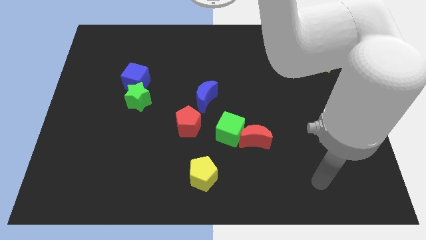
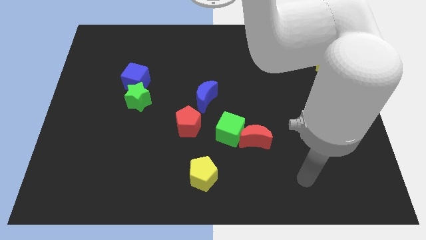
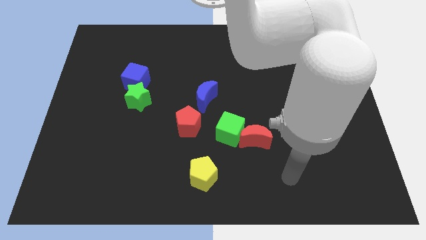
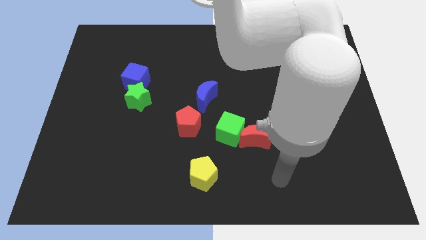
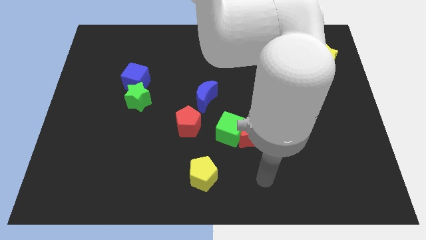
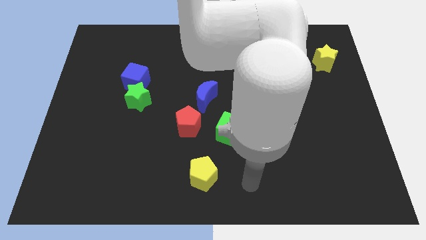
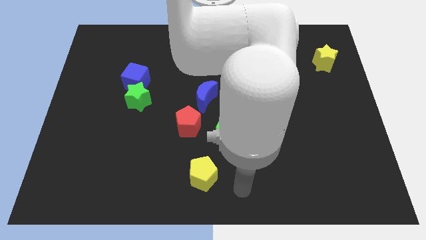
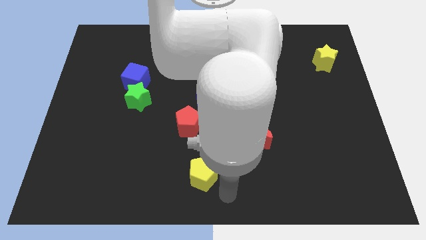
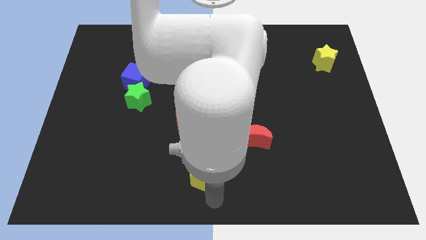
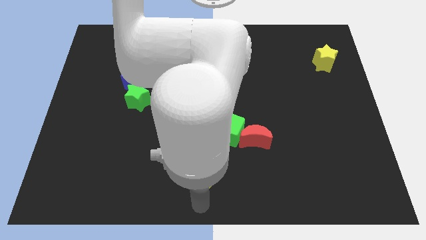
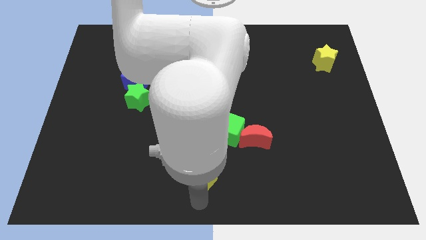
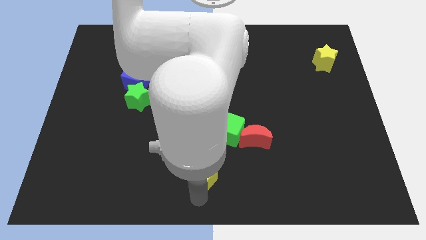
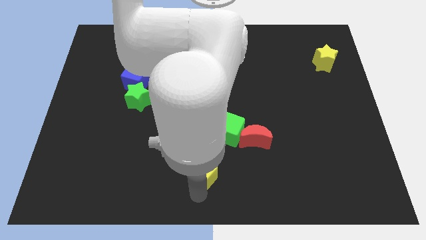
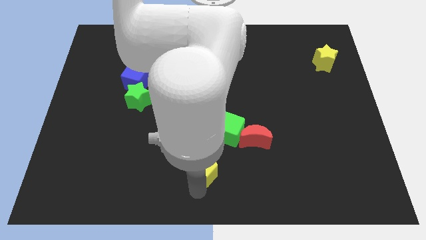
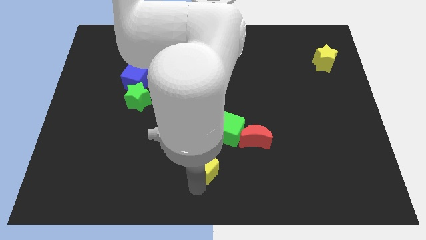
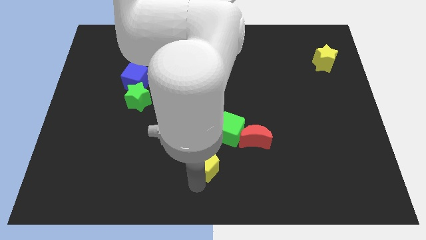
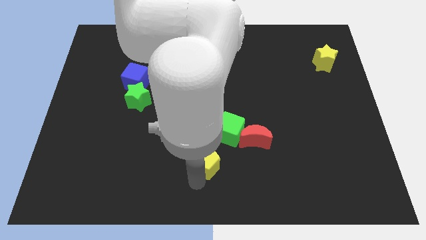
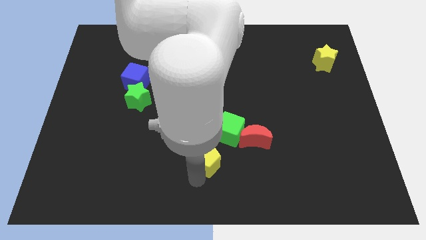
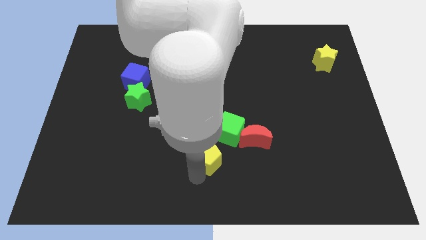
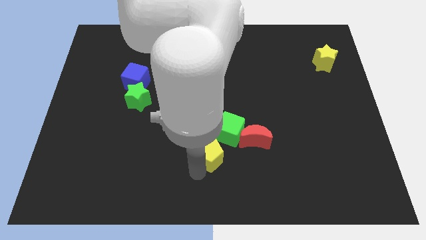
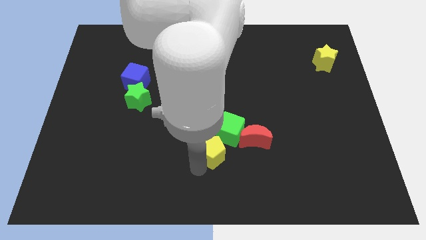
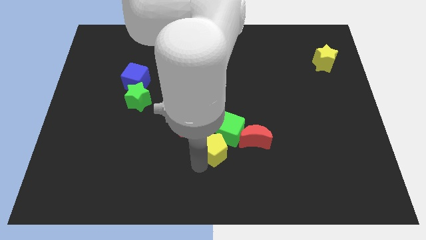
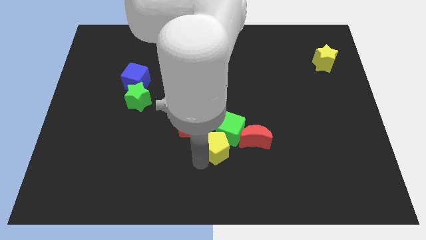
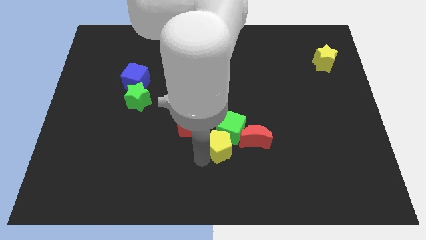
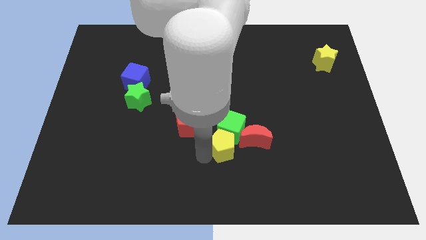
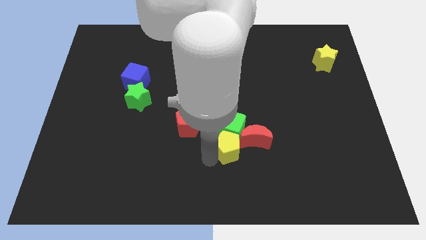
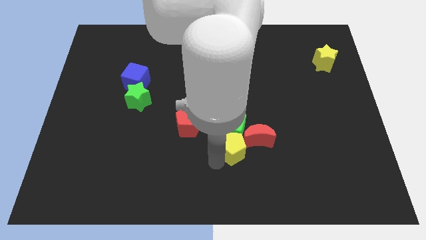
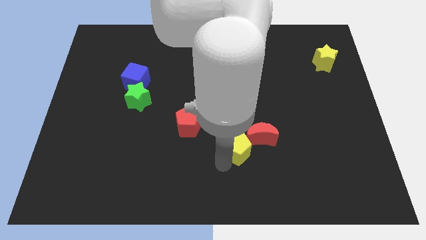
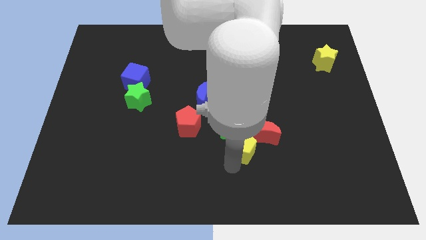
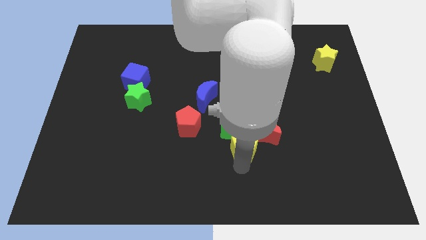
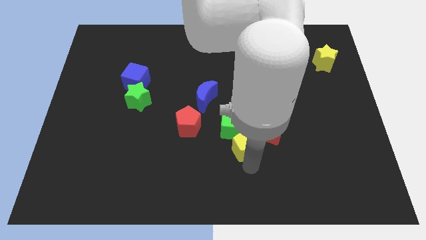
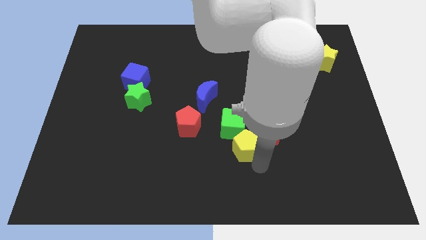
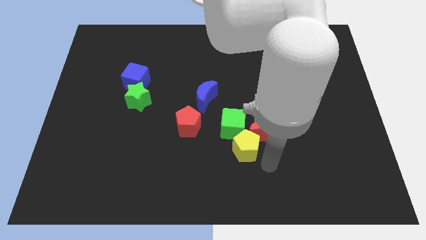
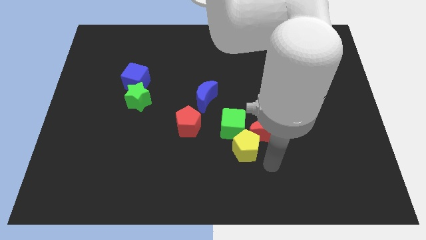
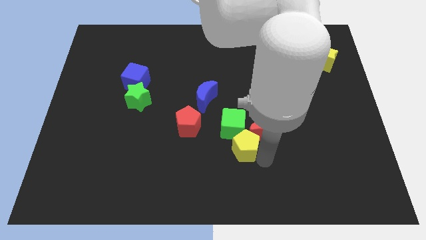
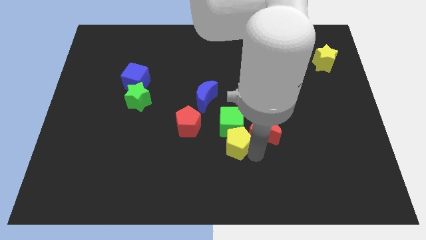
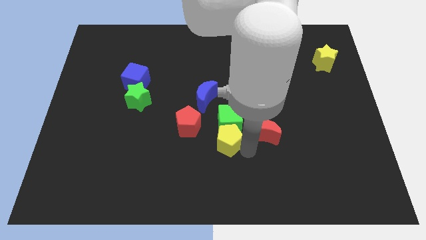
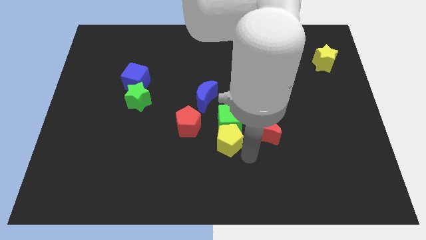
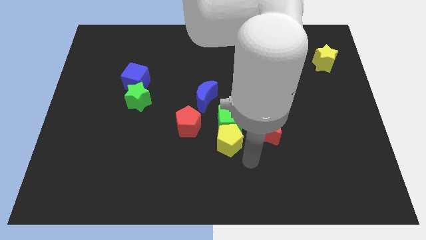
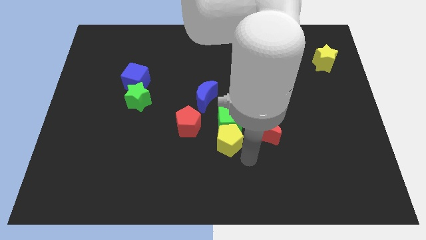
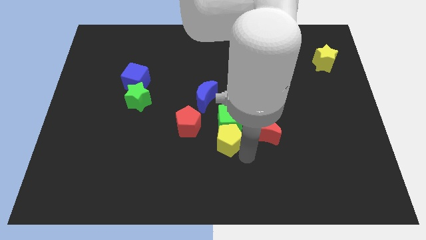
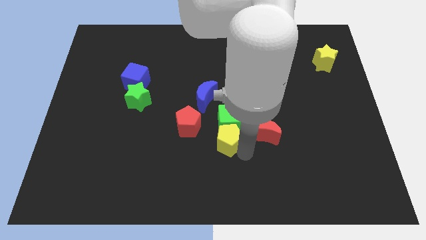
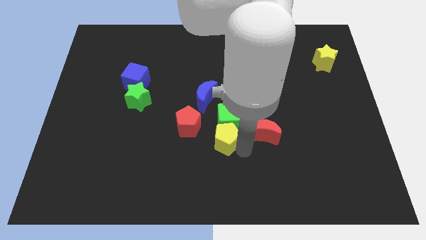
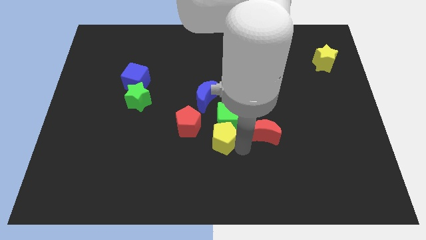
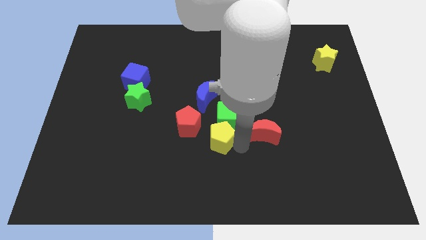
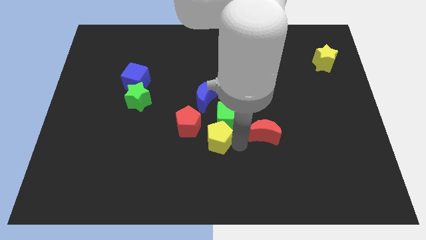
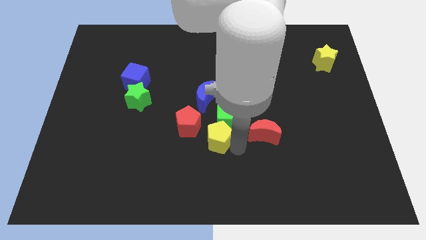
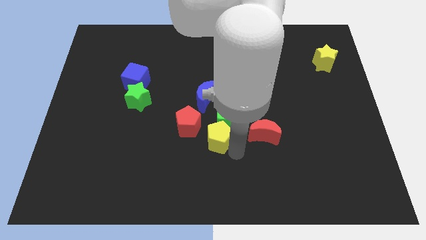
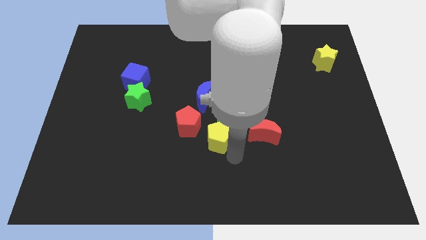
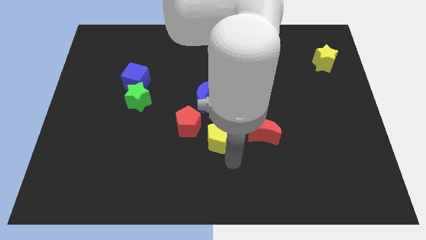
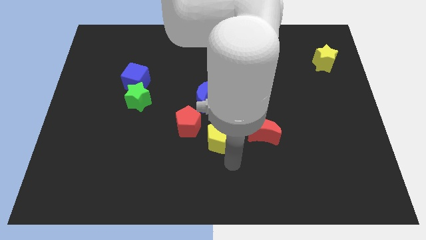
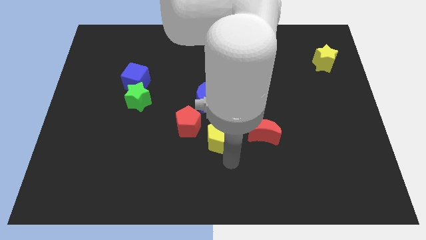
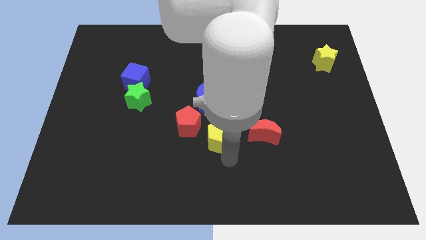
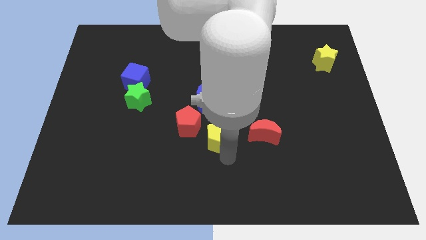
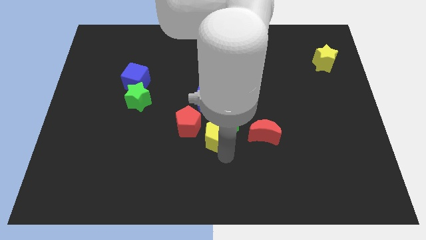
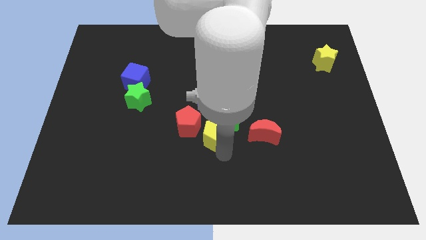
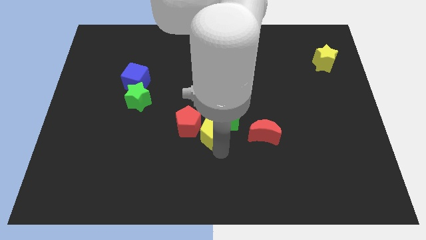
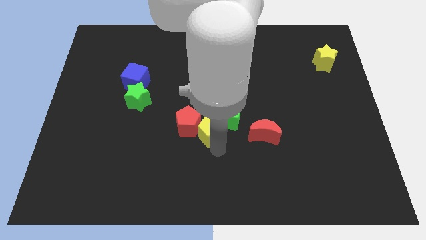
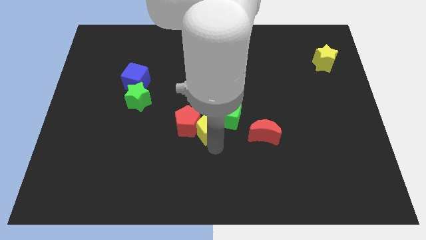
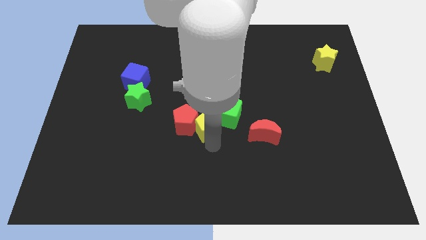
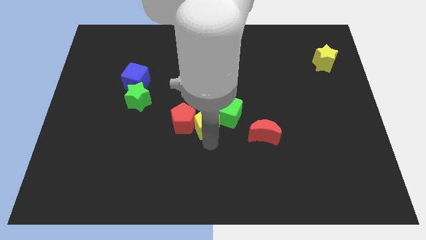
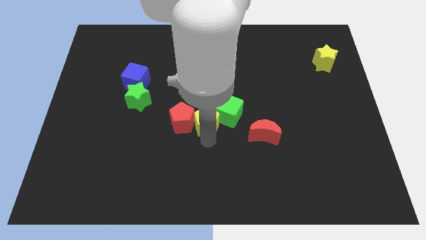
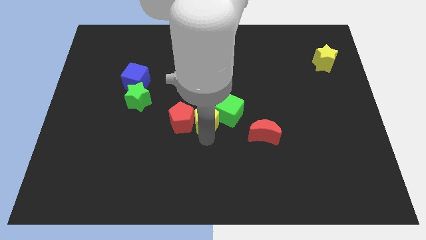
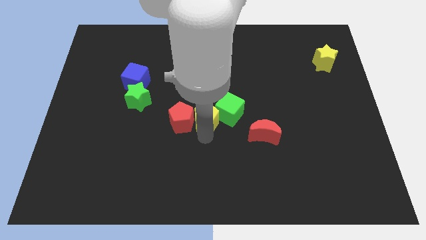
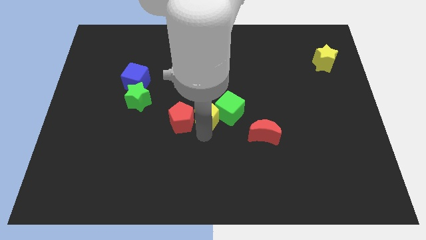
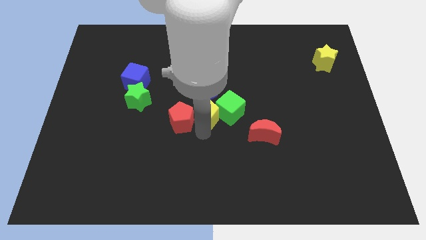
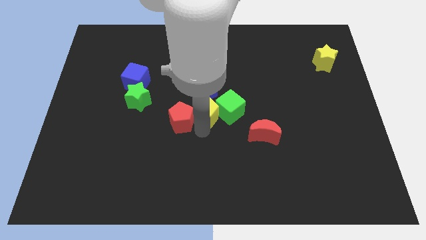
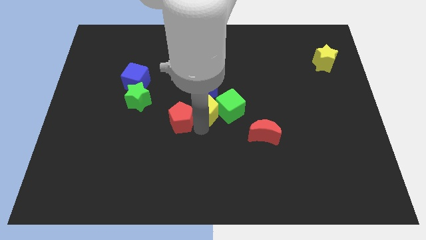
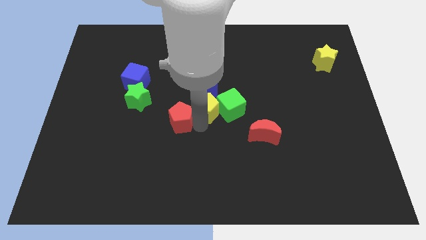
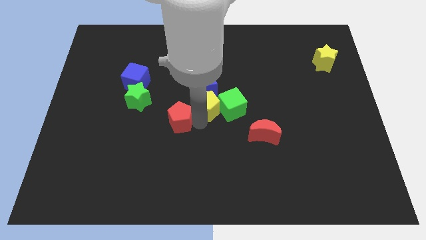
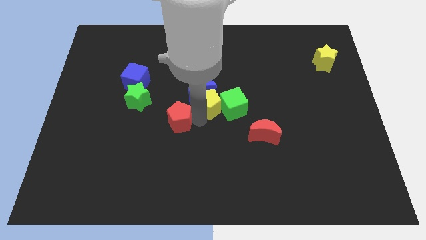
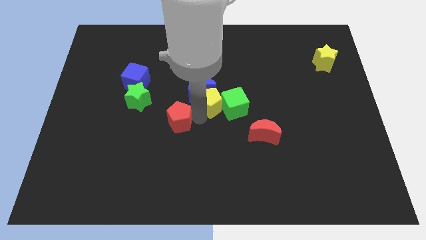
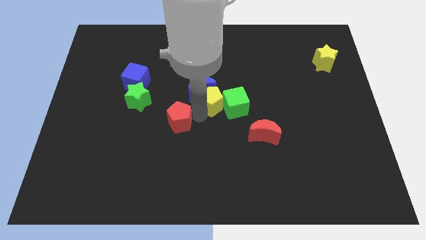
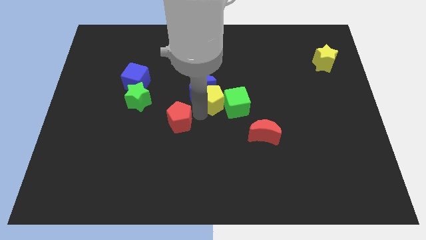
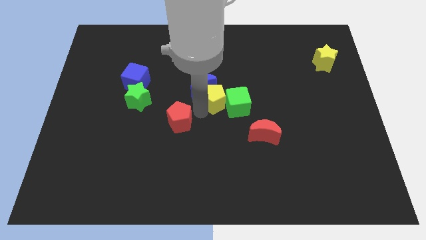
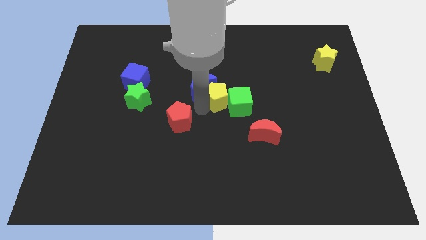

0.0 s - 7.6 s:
move the yellow pentagon upwards

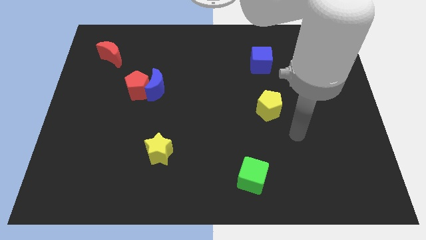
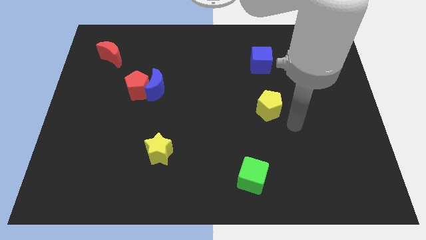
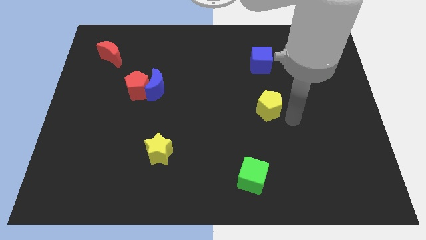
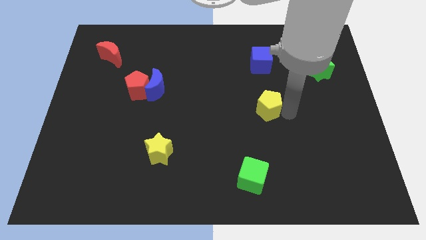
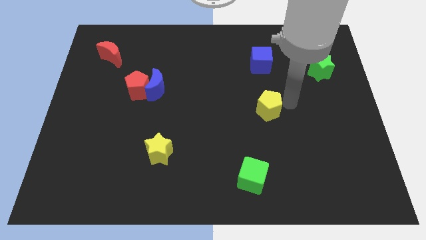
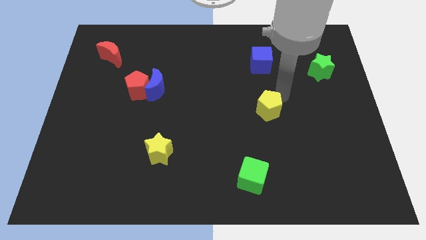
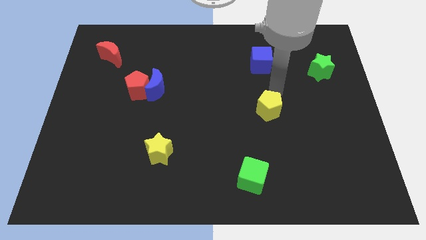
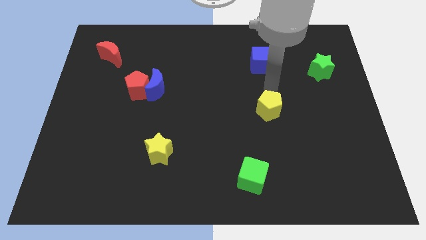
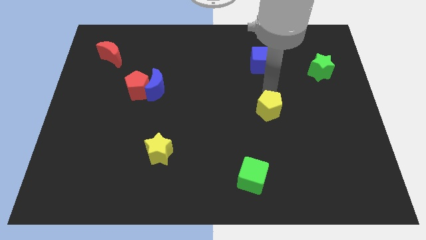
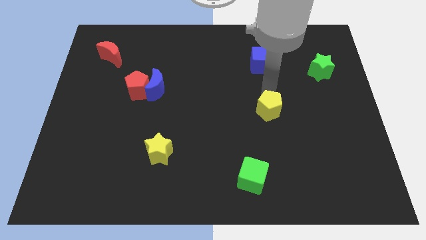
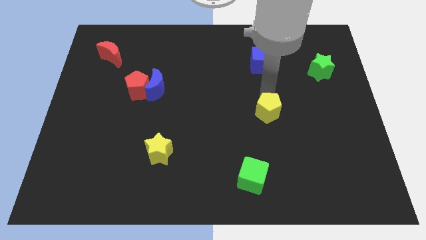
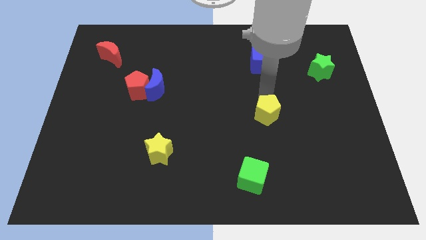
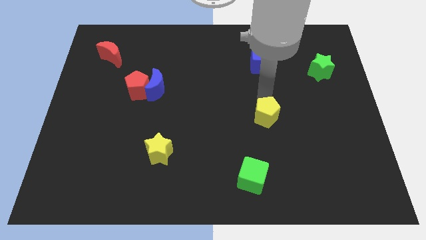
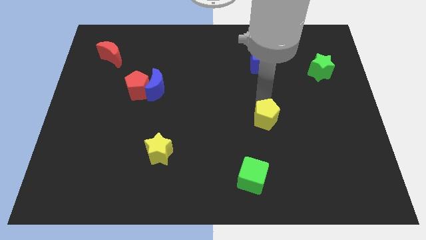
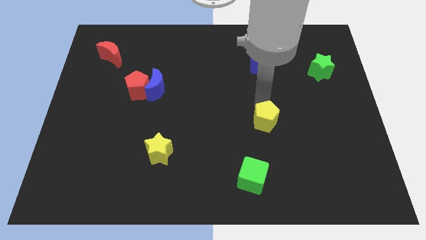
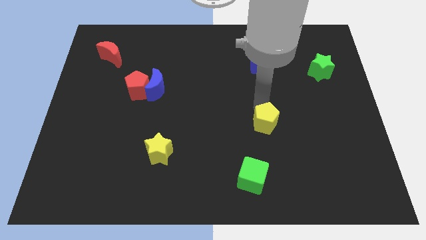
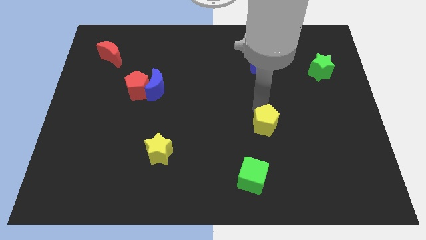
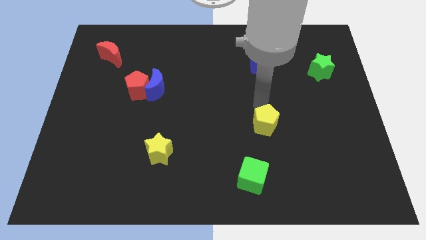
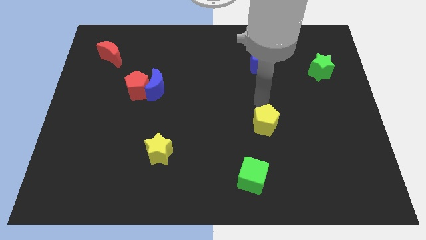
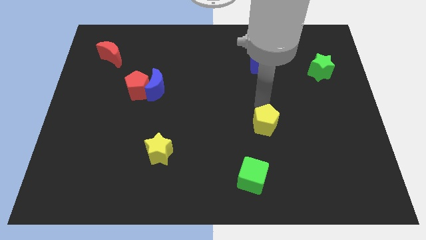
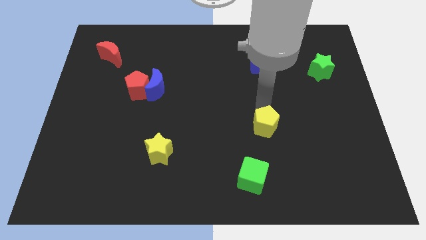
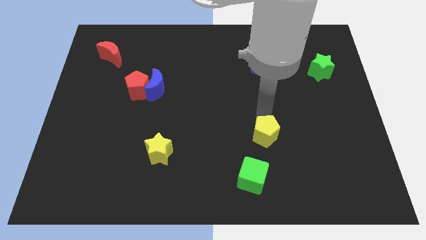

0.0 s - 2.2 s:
slide the yellow pentagon downwards a bit
